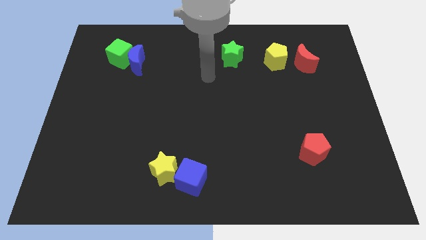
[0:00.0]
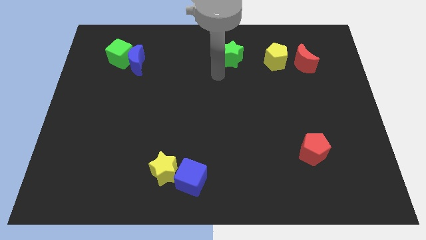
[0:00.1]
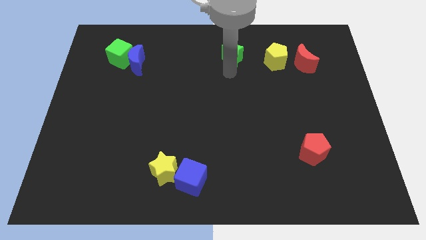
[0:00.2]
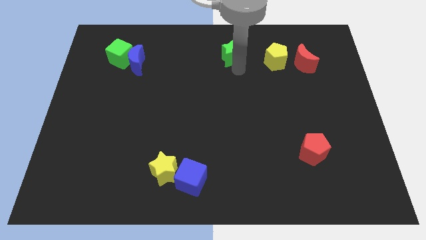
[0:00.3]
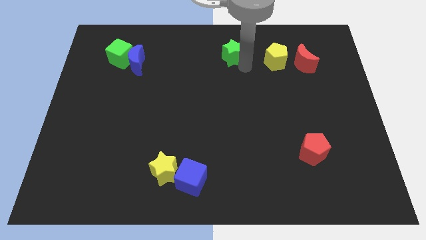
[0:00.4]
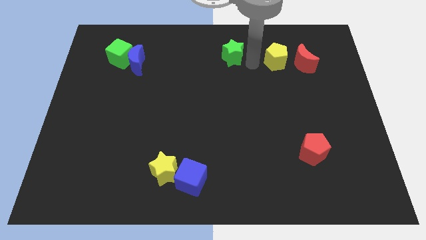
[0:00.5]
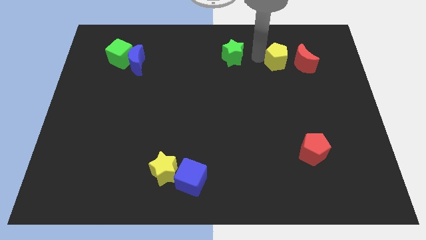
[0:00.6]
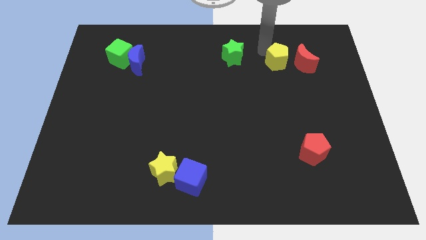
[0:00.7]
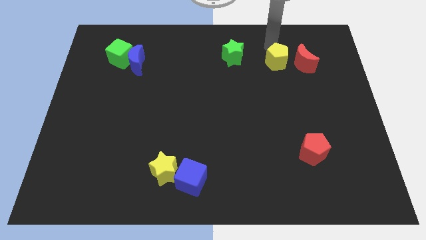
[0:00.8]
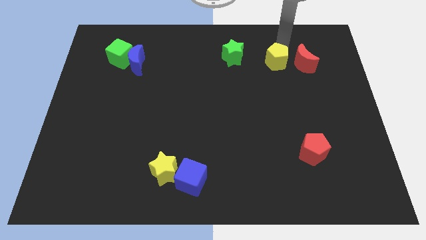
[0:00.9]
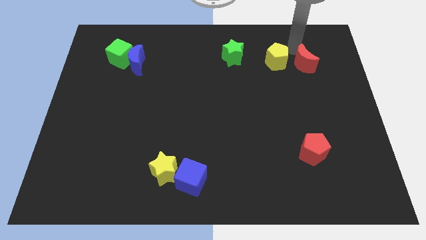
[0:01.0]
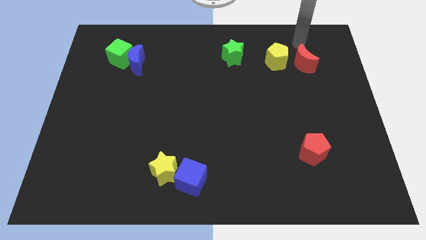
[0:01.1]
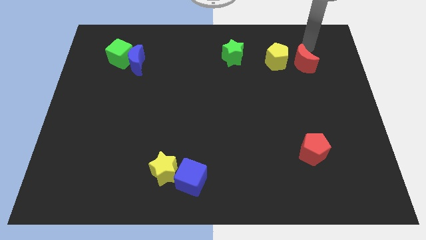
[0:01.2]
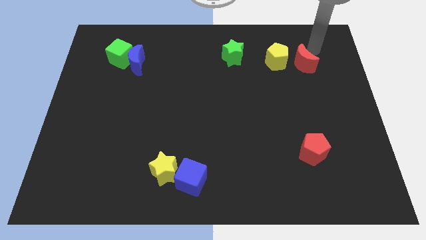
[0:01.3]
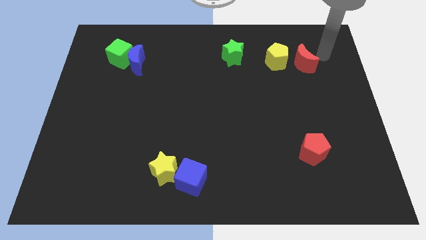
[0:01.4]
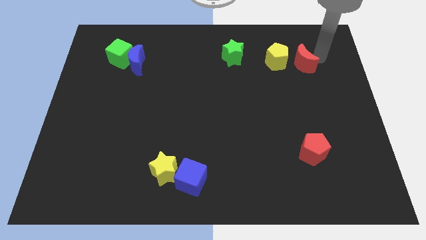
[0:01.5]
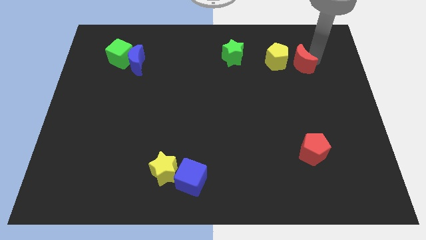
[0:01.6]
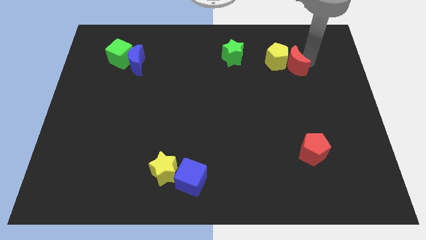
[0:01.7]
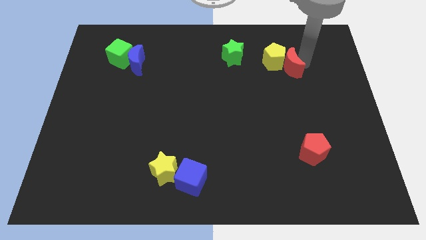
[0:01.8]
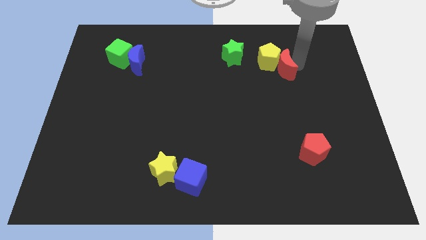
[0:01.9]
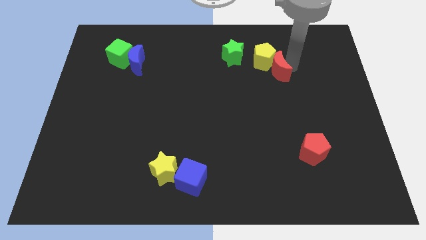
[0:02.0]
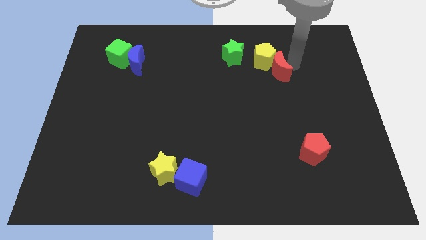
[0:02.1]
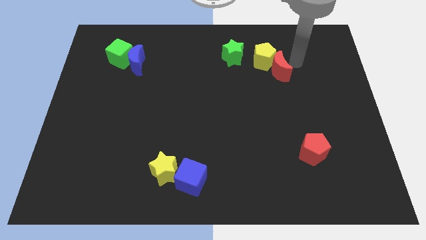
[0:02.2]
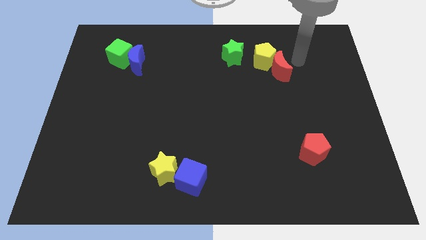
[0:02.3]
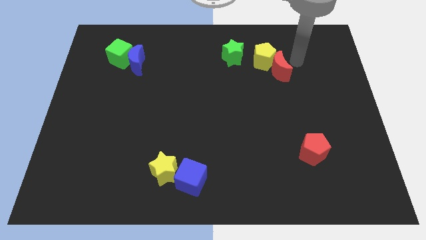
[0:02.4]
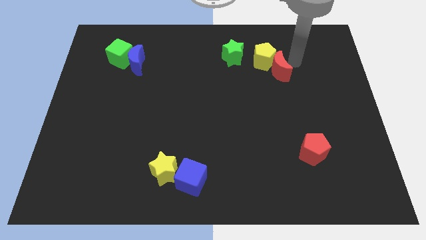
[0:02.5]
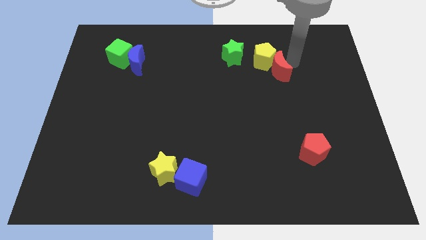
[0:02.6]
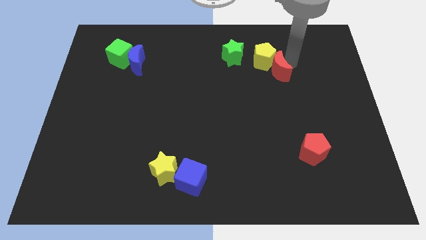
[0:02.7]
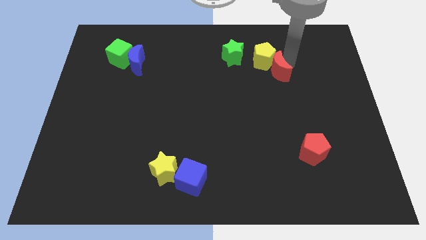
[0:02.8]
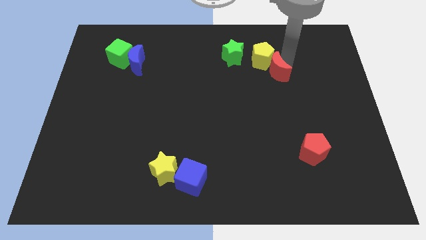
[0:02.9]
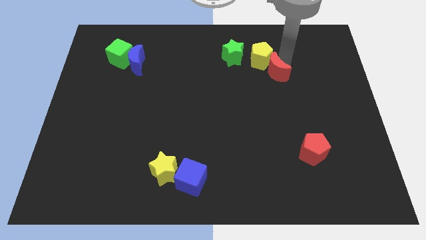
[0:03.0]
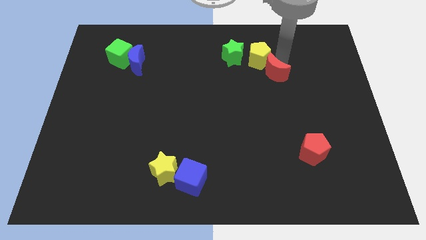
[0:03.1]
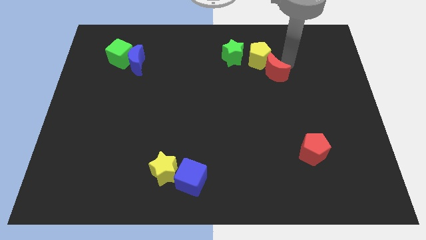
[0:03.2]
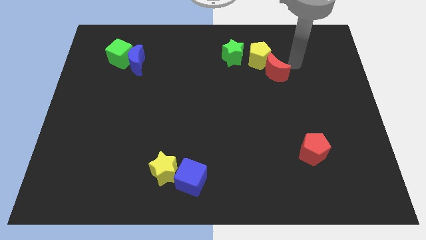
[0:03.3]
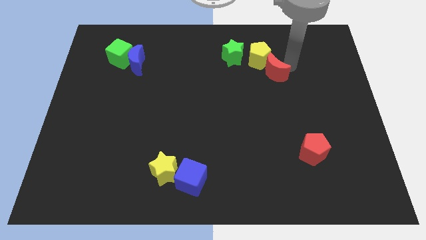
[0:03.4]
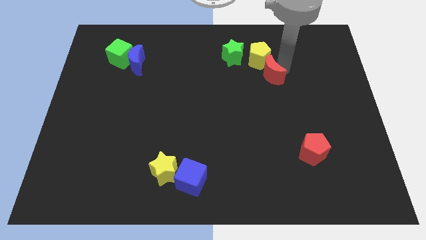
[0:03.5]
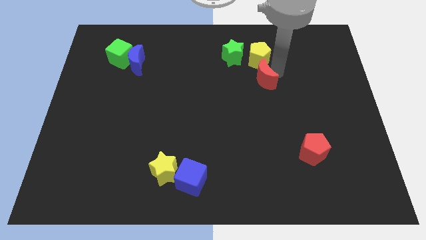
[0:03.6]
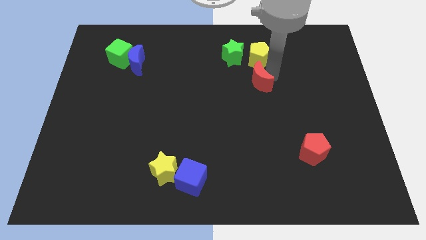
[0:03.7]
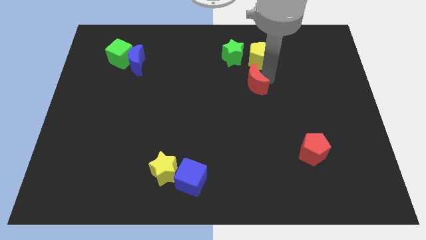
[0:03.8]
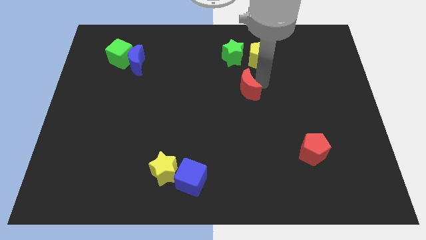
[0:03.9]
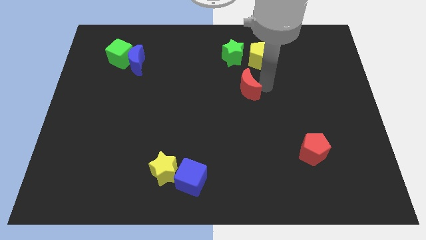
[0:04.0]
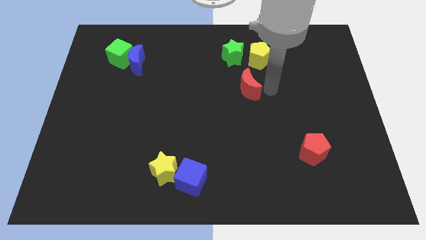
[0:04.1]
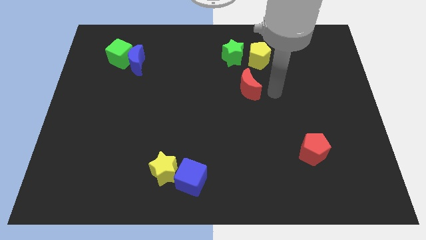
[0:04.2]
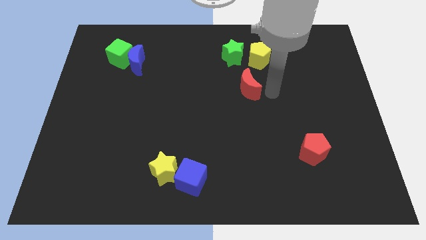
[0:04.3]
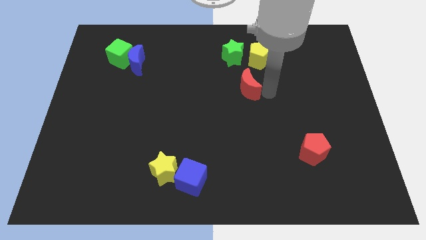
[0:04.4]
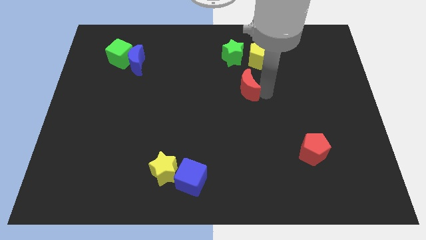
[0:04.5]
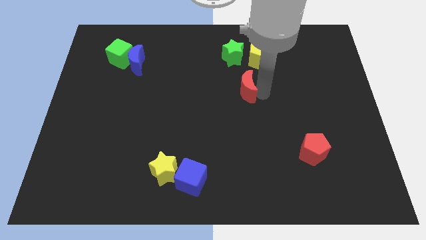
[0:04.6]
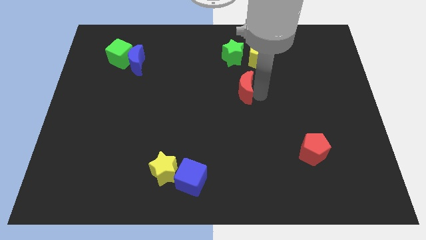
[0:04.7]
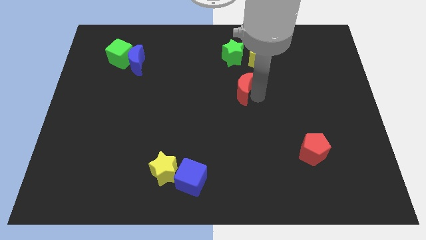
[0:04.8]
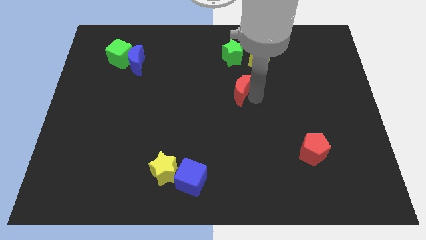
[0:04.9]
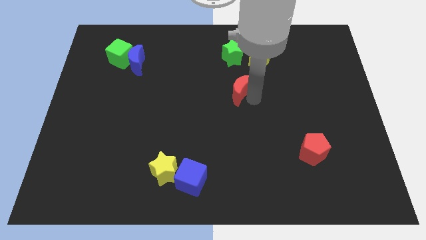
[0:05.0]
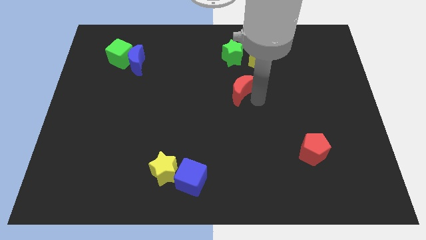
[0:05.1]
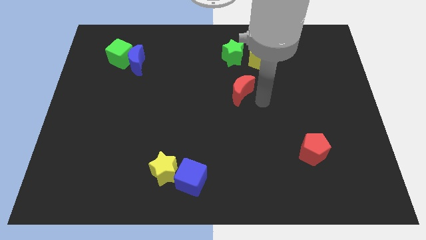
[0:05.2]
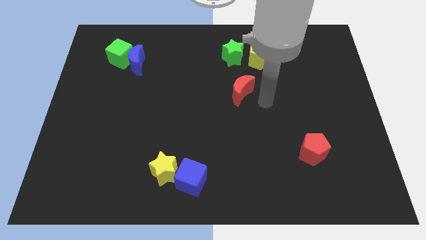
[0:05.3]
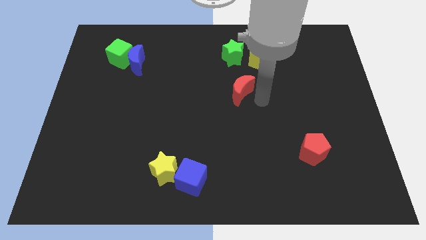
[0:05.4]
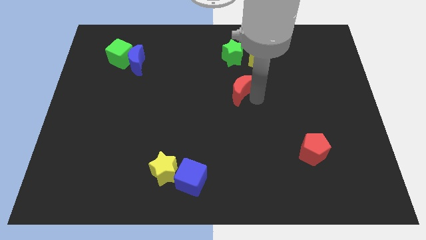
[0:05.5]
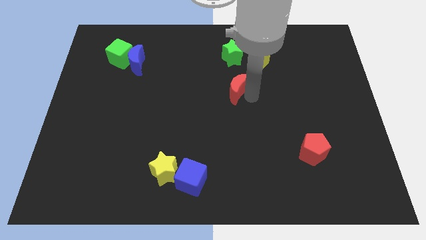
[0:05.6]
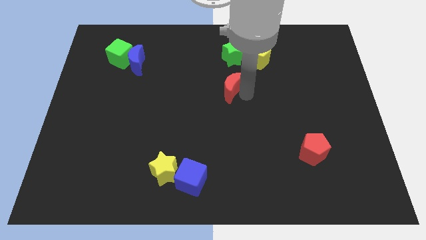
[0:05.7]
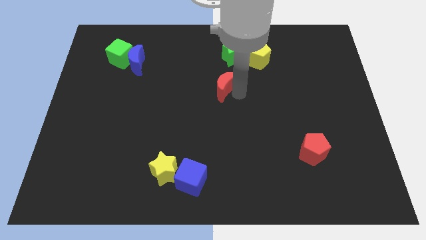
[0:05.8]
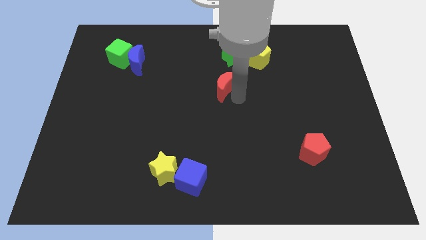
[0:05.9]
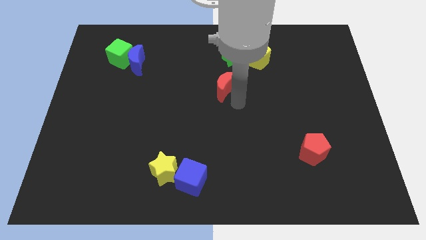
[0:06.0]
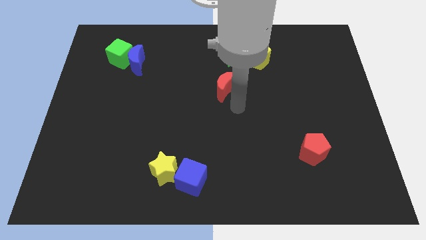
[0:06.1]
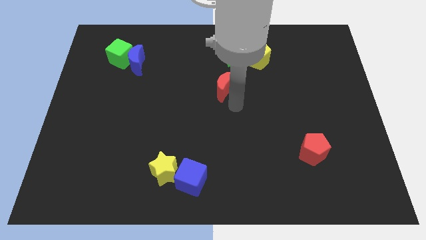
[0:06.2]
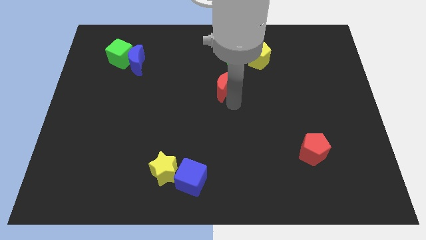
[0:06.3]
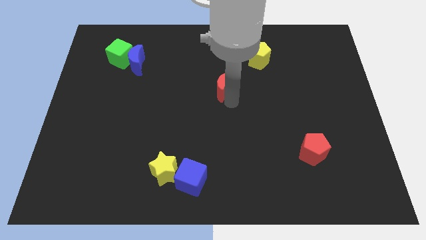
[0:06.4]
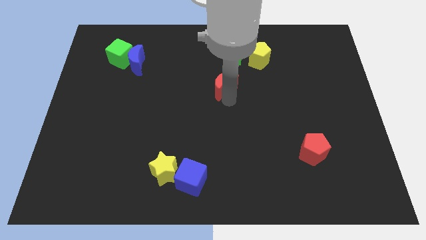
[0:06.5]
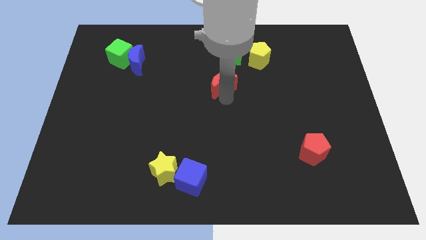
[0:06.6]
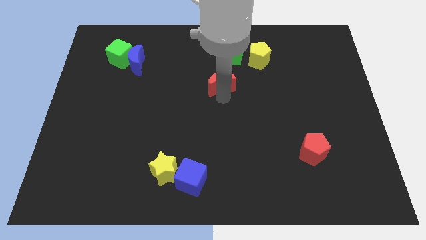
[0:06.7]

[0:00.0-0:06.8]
put the red moon to the bottom left side of the green star
